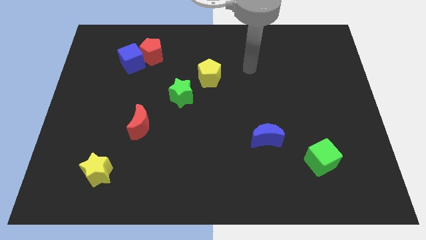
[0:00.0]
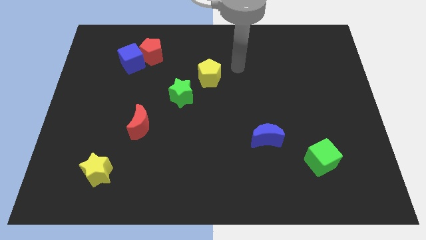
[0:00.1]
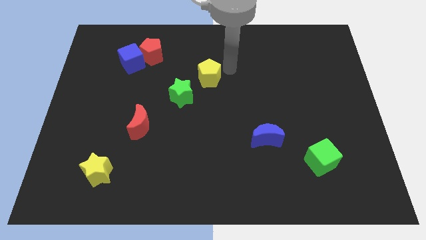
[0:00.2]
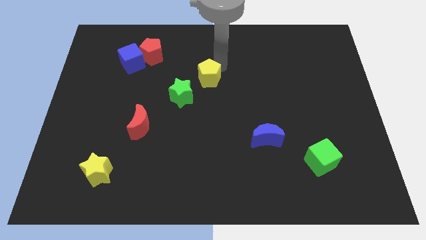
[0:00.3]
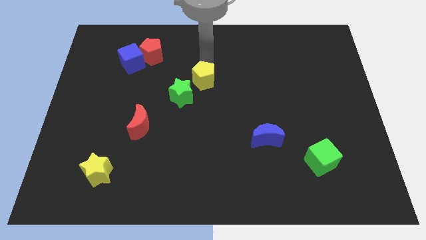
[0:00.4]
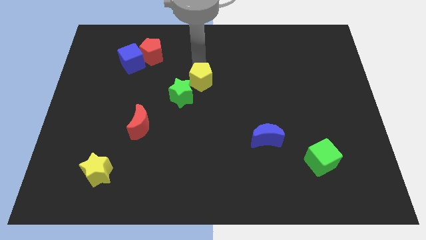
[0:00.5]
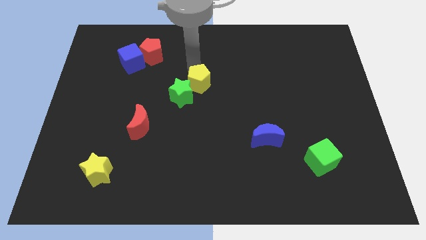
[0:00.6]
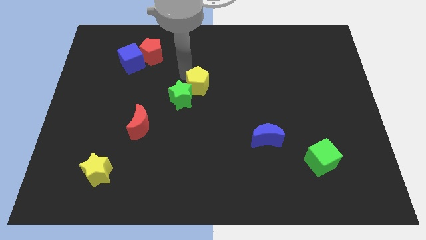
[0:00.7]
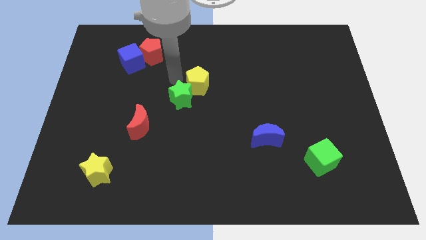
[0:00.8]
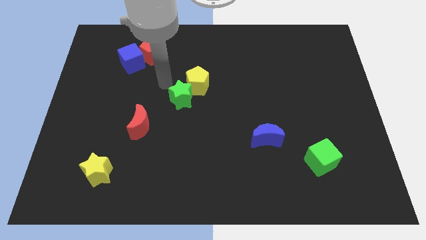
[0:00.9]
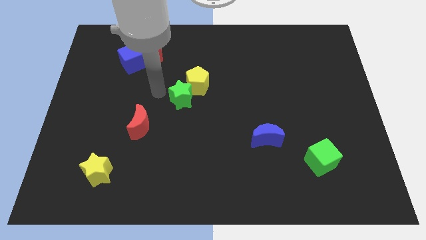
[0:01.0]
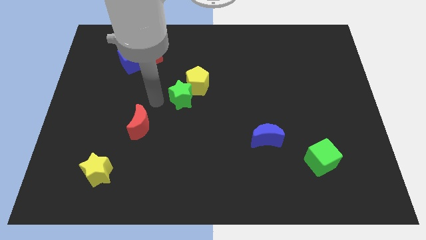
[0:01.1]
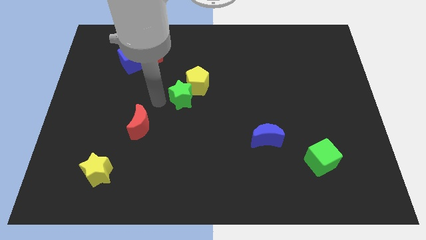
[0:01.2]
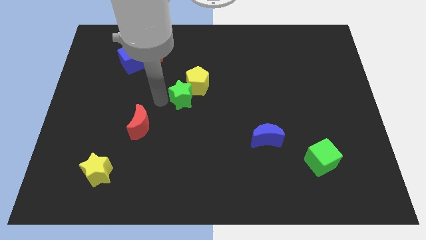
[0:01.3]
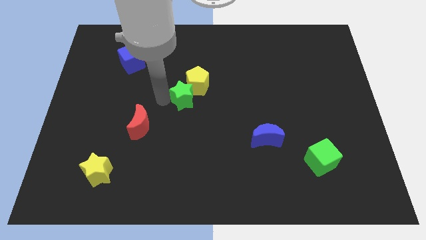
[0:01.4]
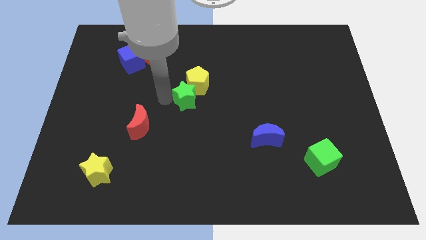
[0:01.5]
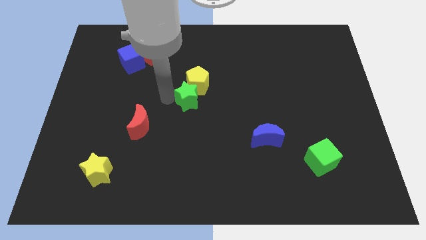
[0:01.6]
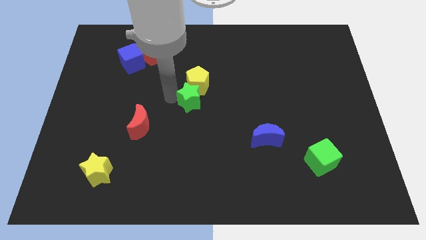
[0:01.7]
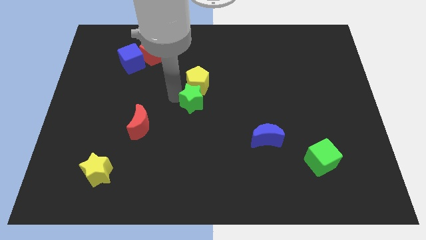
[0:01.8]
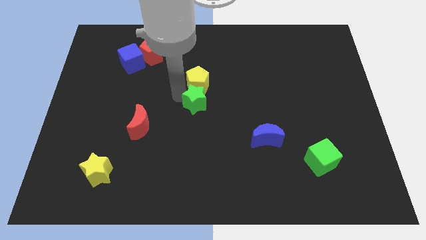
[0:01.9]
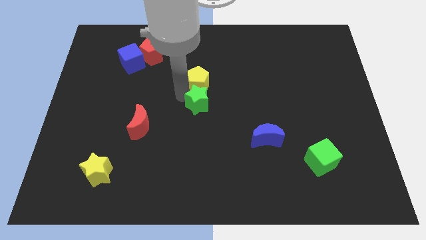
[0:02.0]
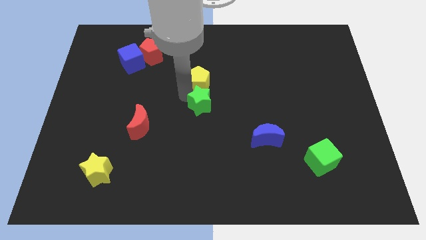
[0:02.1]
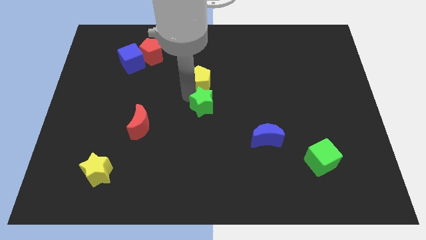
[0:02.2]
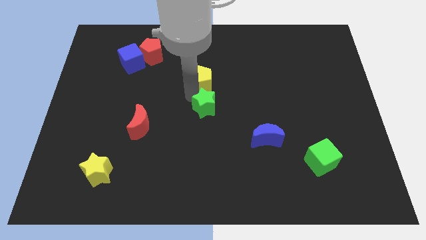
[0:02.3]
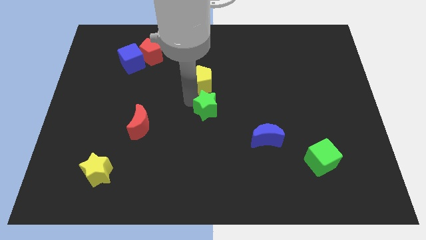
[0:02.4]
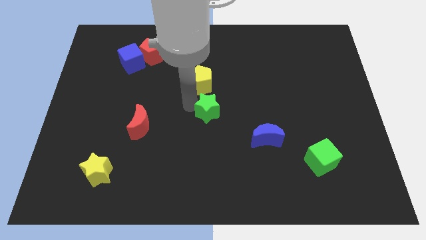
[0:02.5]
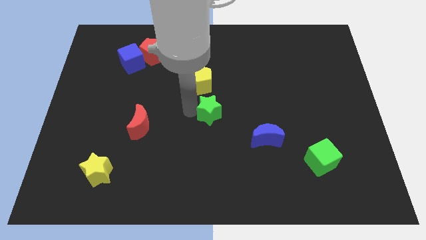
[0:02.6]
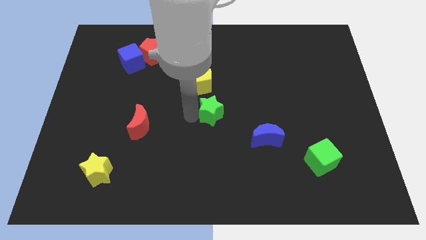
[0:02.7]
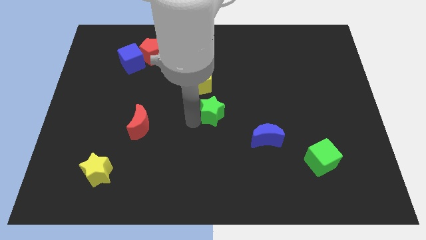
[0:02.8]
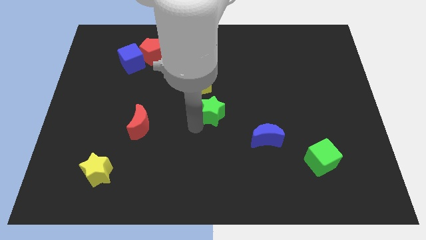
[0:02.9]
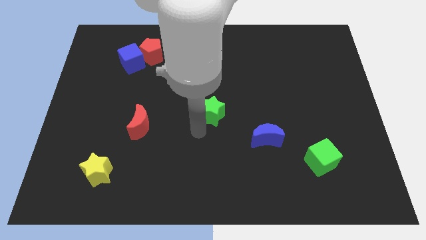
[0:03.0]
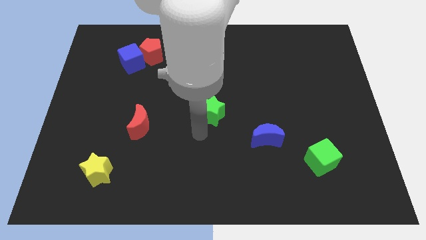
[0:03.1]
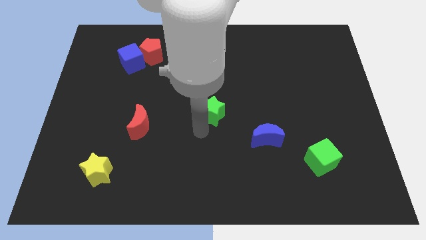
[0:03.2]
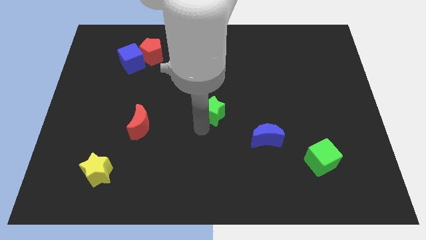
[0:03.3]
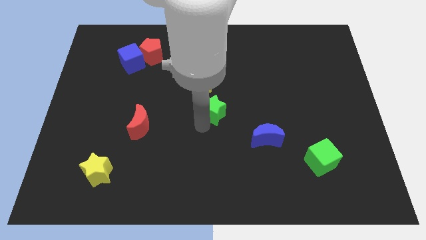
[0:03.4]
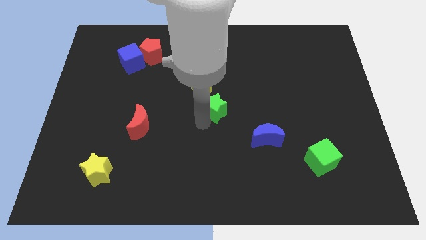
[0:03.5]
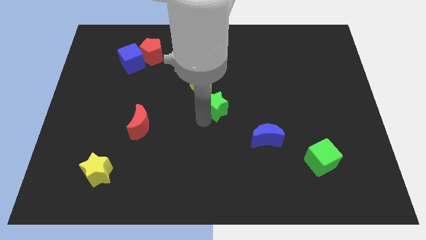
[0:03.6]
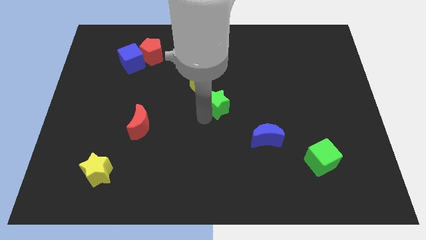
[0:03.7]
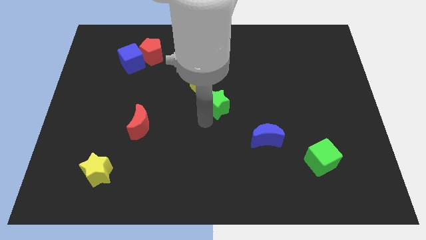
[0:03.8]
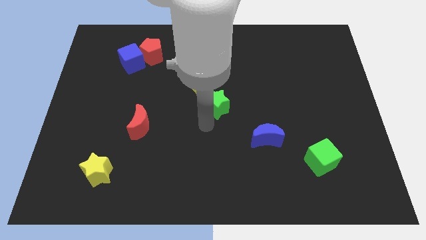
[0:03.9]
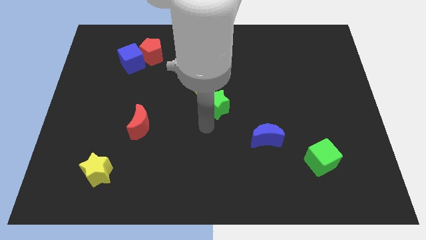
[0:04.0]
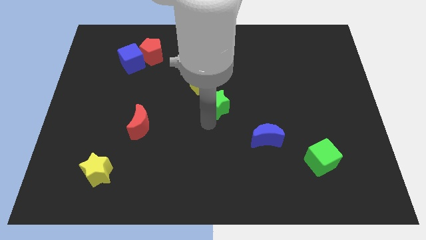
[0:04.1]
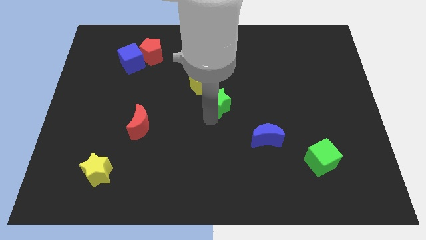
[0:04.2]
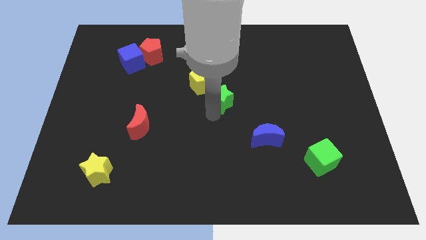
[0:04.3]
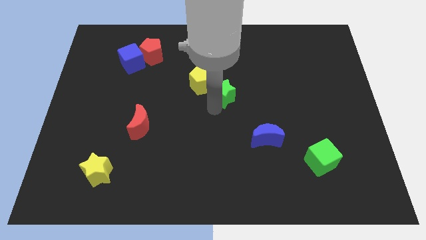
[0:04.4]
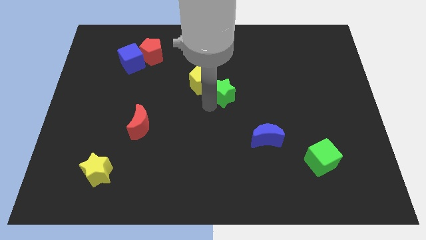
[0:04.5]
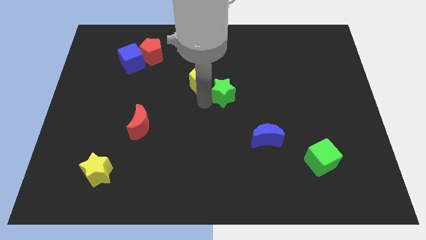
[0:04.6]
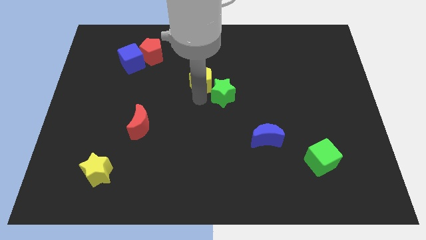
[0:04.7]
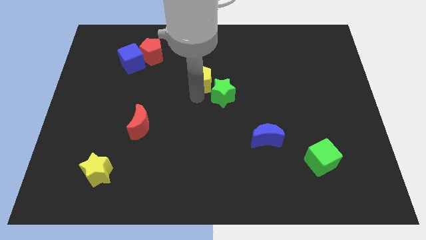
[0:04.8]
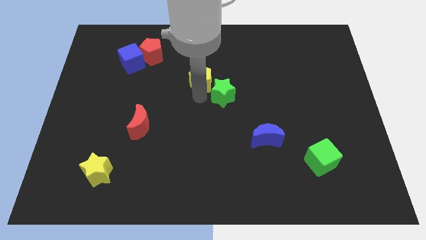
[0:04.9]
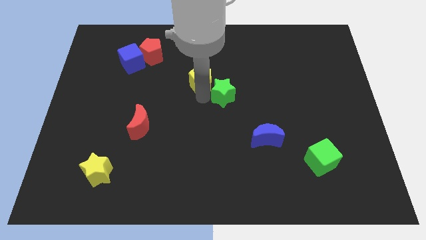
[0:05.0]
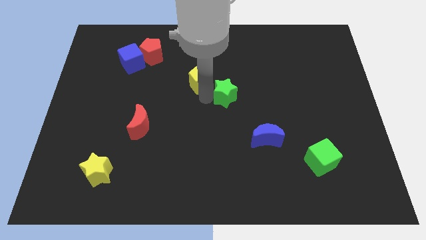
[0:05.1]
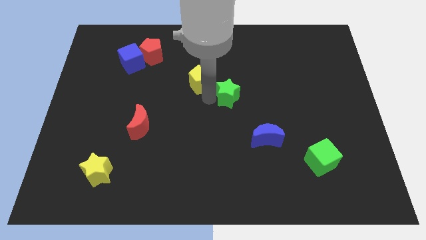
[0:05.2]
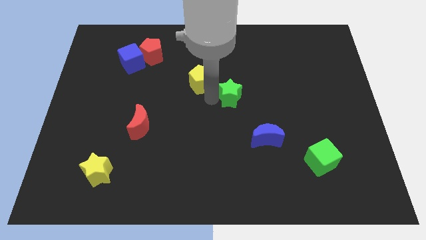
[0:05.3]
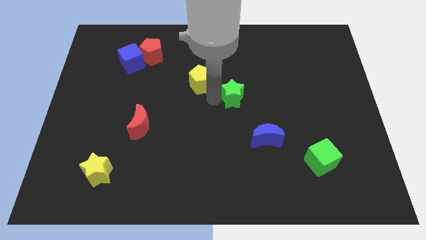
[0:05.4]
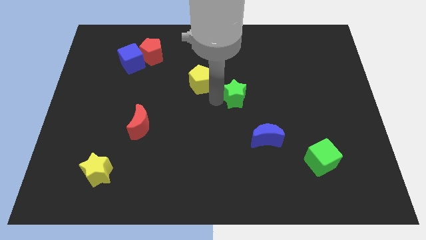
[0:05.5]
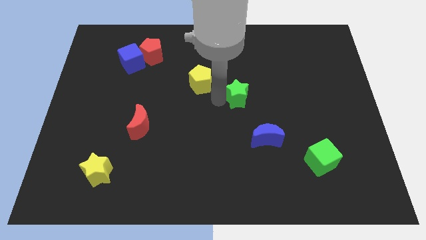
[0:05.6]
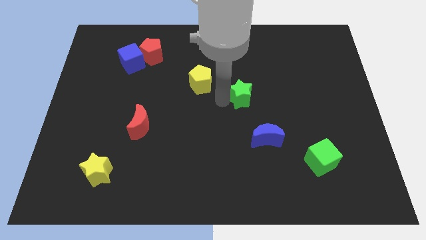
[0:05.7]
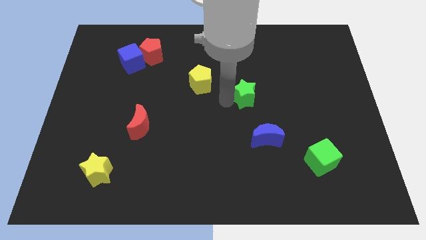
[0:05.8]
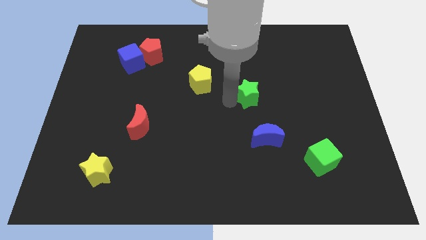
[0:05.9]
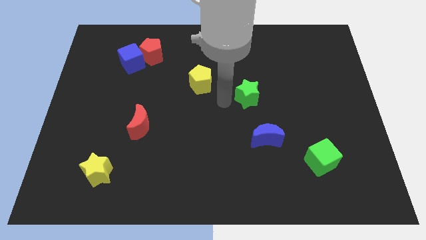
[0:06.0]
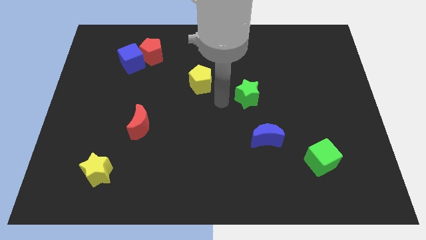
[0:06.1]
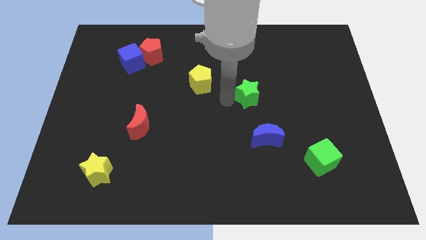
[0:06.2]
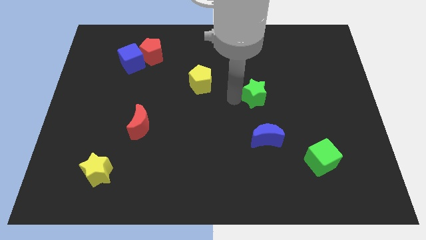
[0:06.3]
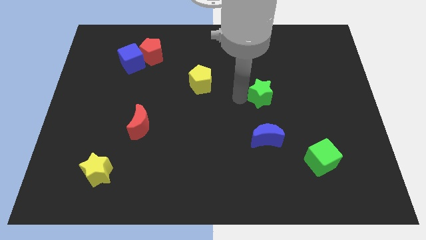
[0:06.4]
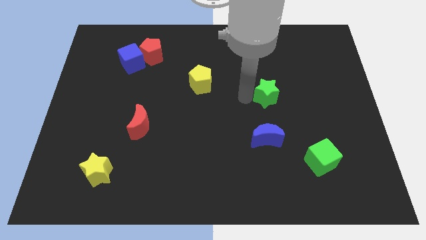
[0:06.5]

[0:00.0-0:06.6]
push the green star right

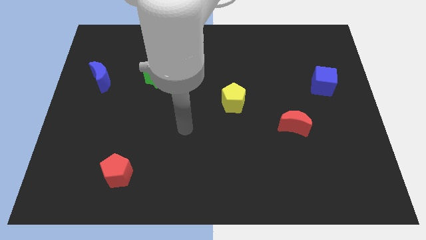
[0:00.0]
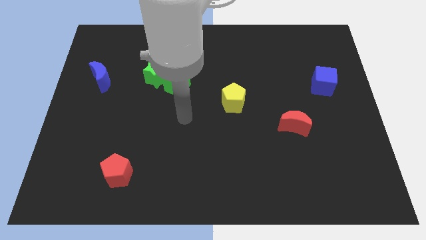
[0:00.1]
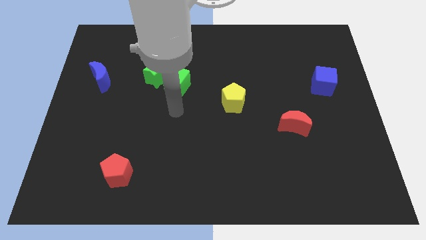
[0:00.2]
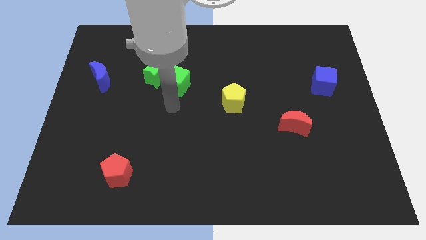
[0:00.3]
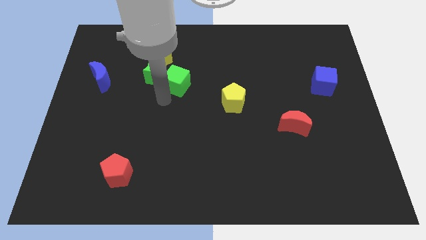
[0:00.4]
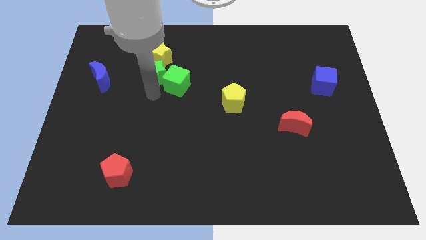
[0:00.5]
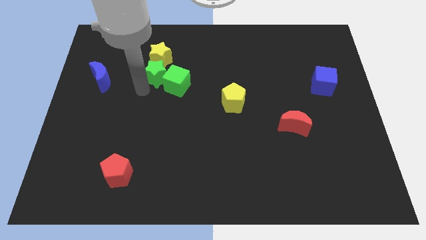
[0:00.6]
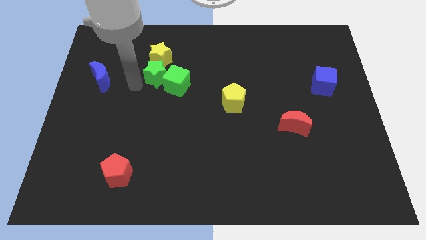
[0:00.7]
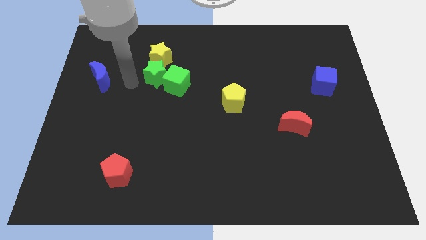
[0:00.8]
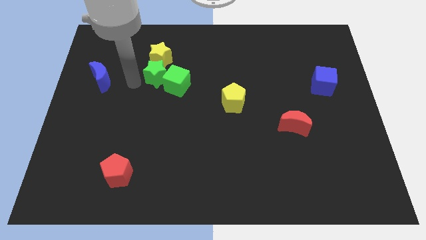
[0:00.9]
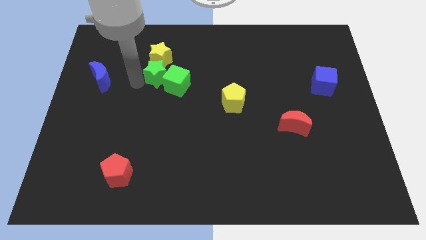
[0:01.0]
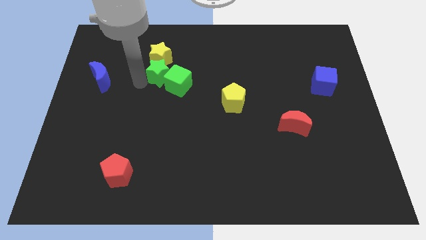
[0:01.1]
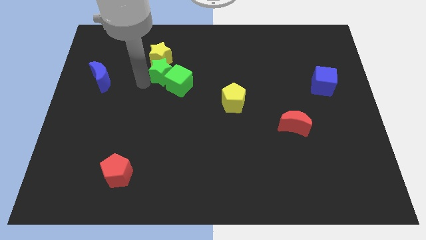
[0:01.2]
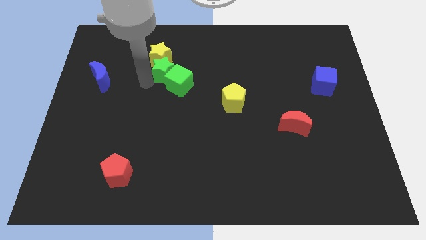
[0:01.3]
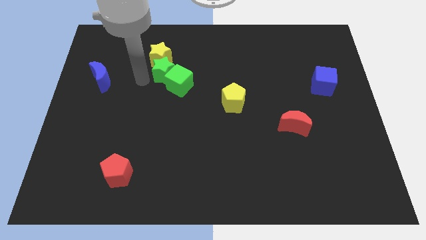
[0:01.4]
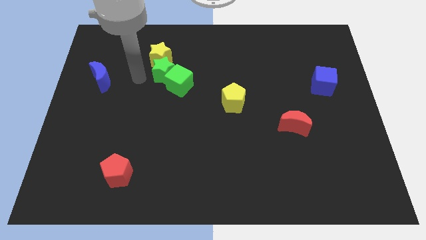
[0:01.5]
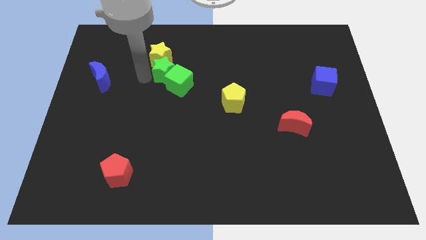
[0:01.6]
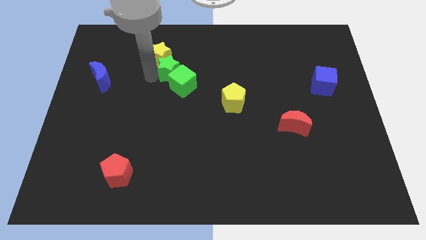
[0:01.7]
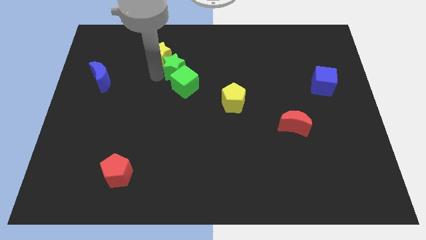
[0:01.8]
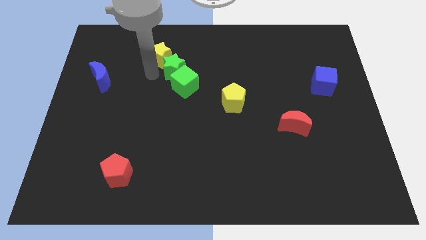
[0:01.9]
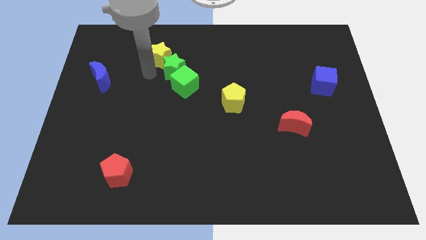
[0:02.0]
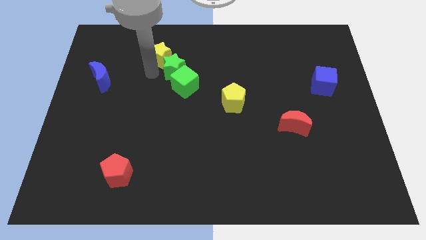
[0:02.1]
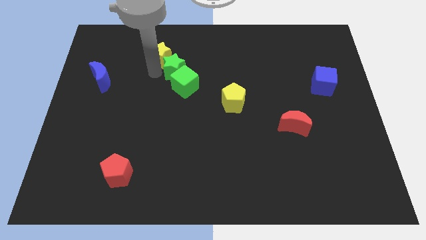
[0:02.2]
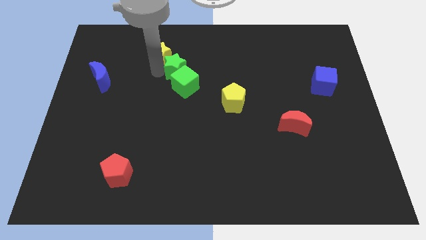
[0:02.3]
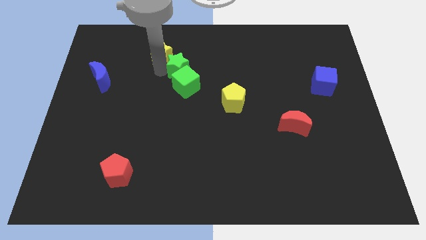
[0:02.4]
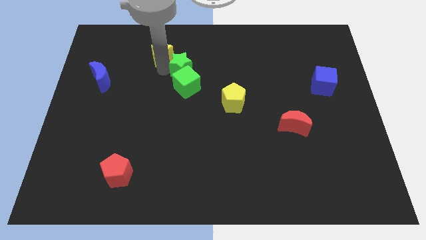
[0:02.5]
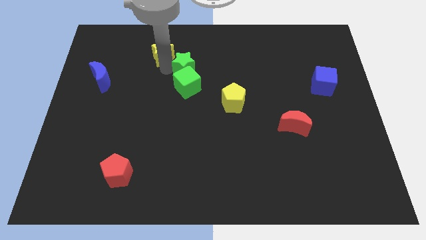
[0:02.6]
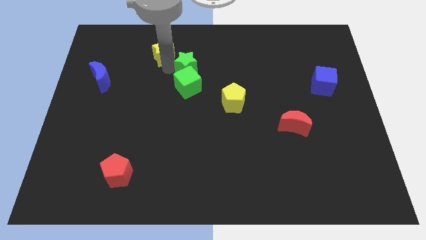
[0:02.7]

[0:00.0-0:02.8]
slightly slide the green star to the right
